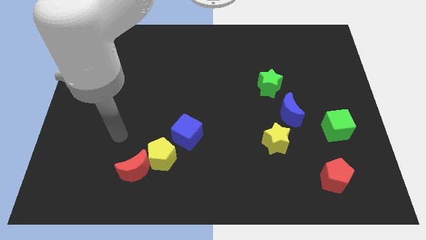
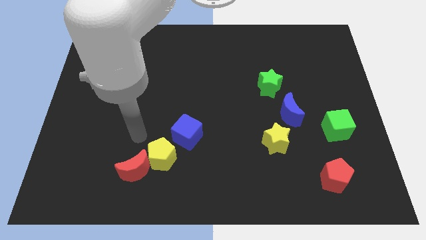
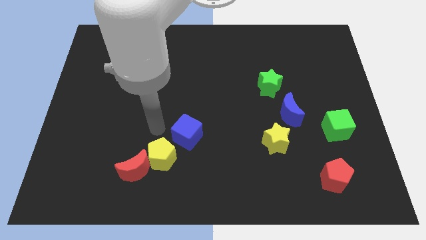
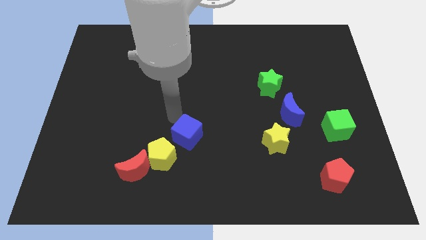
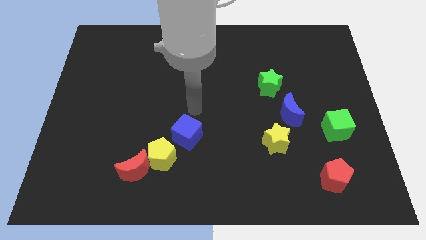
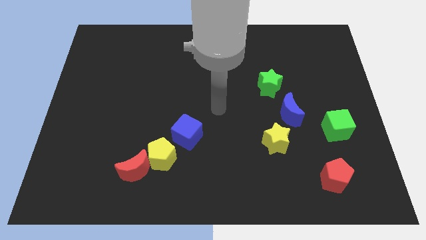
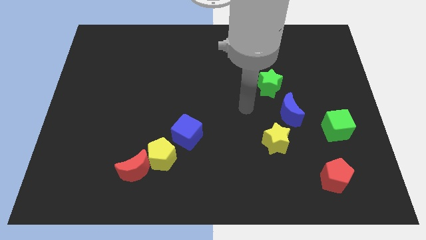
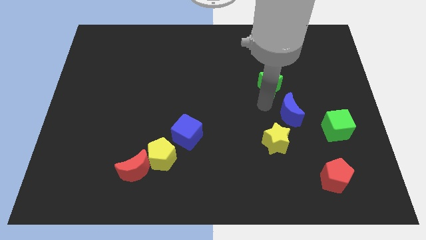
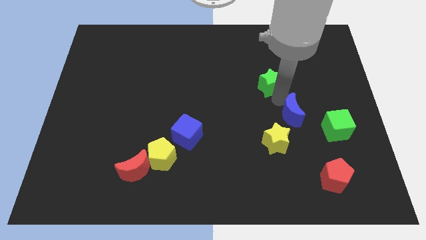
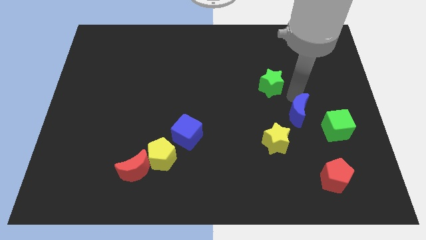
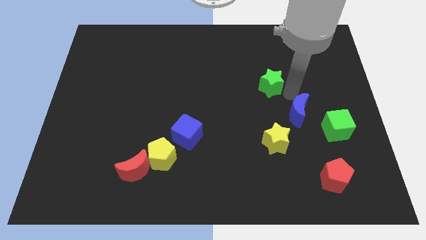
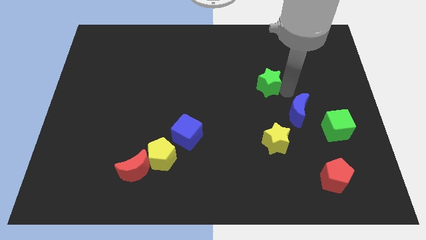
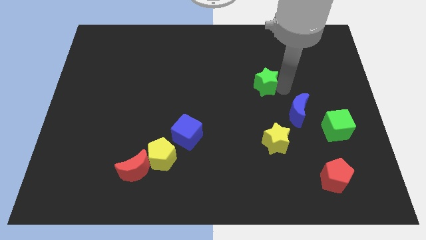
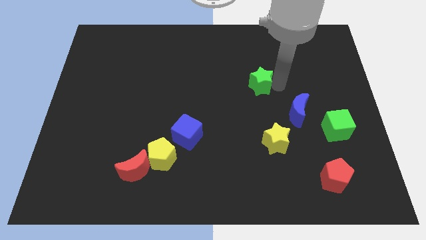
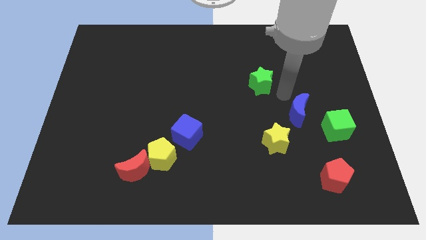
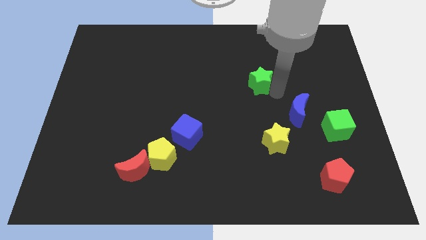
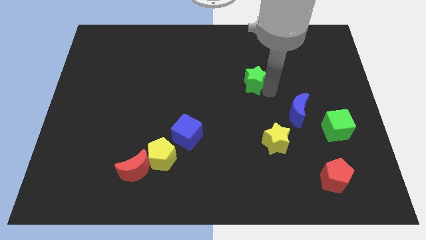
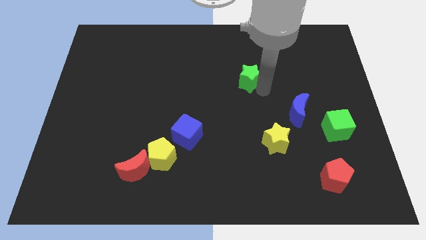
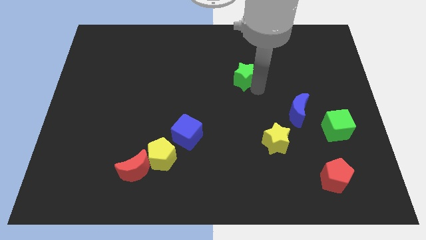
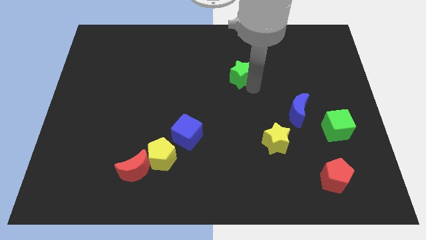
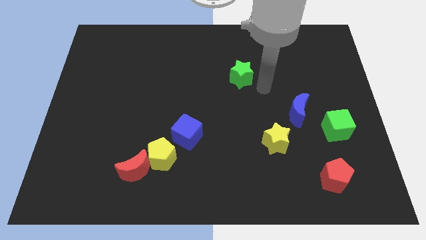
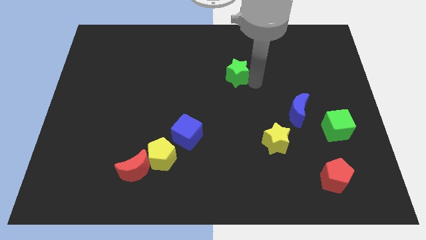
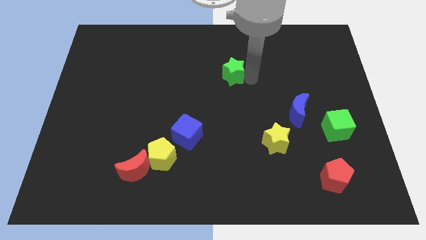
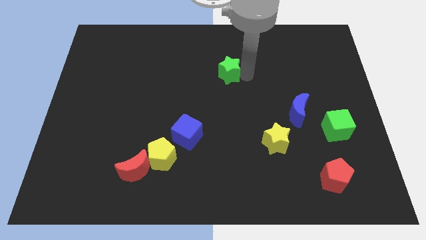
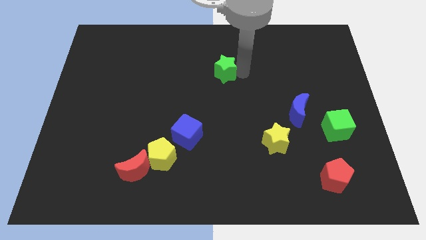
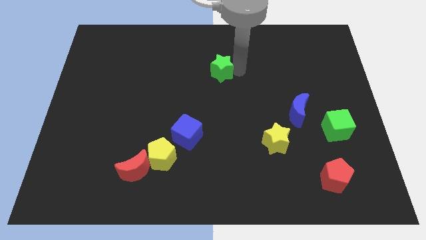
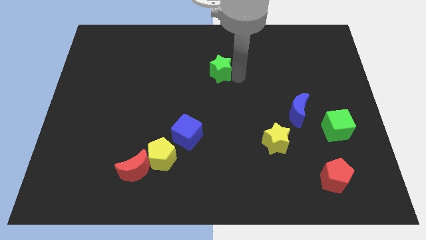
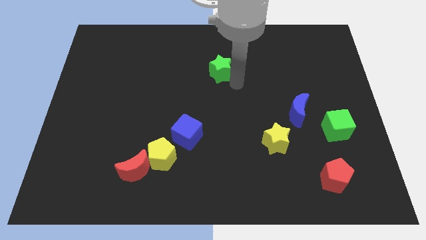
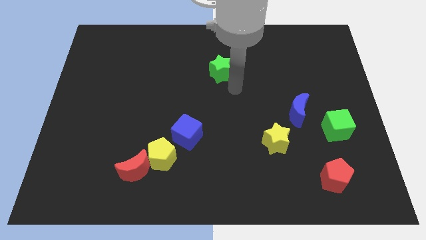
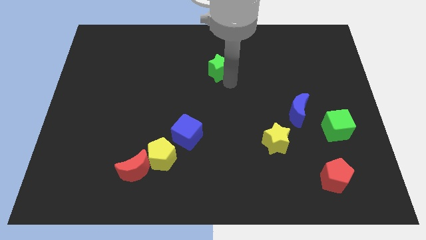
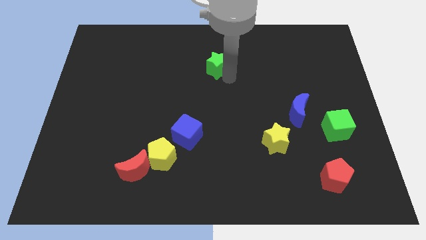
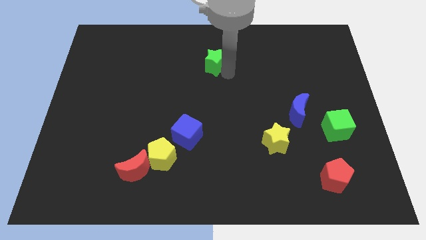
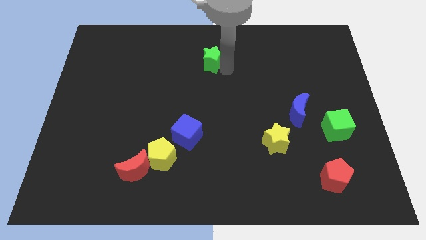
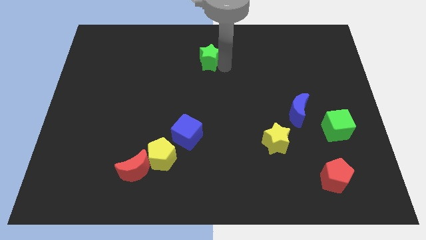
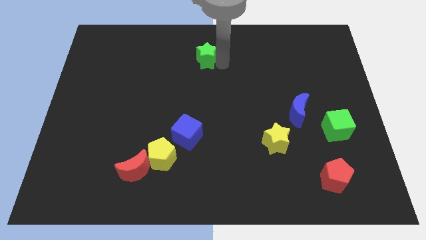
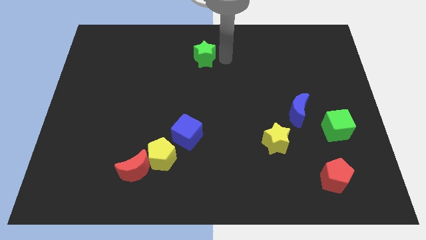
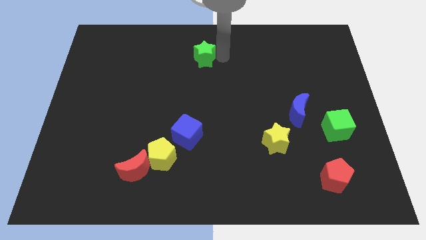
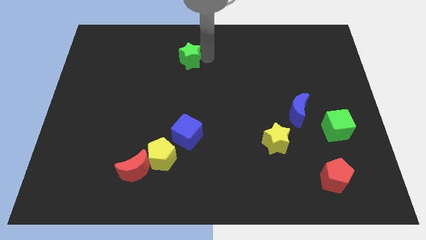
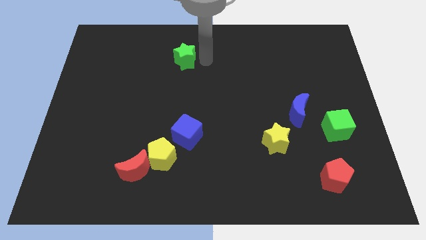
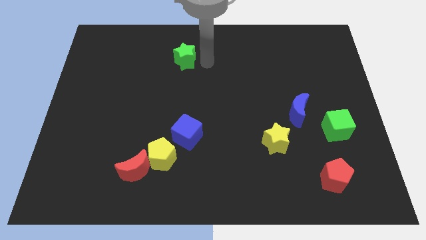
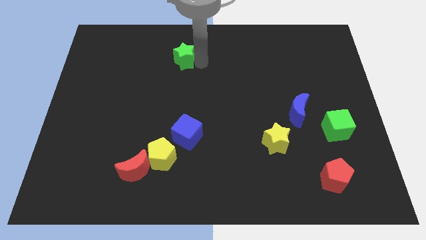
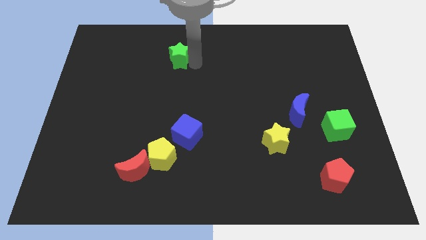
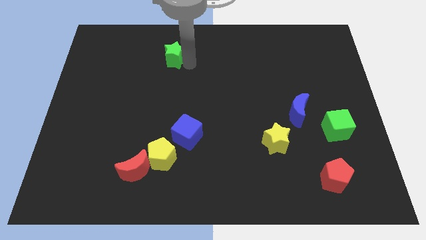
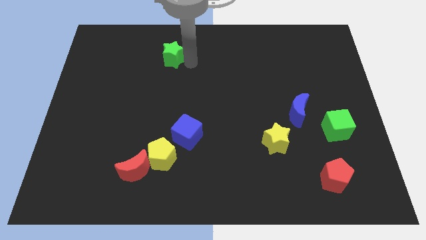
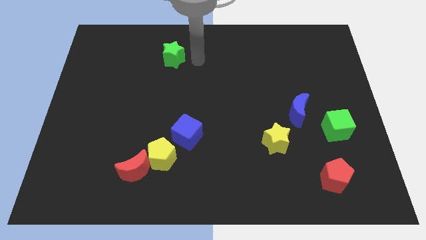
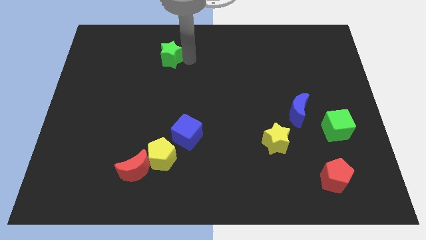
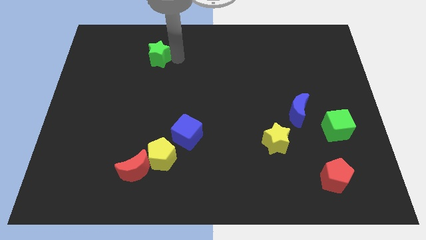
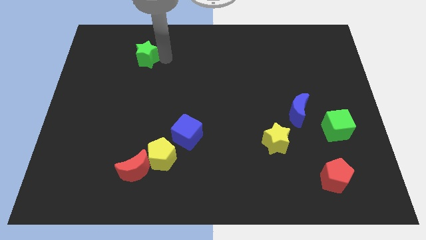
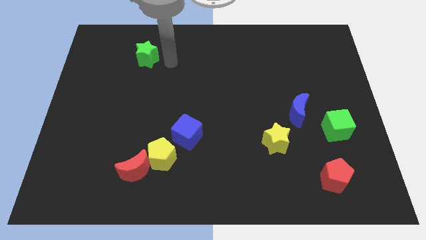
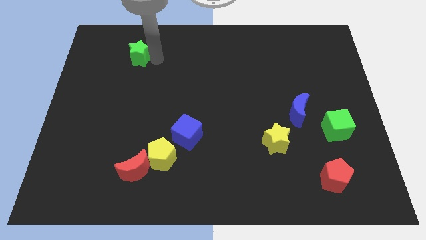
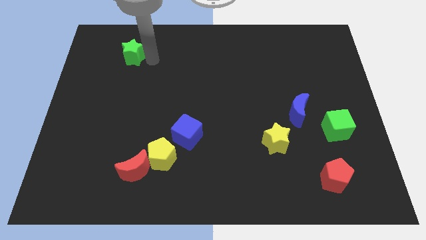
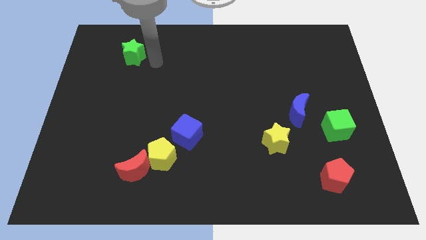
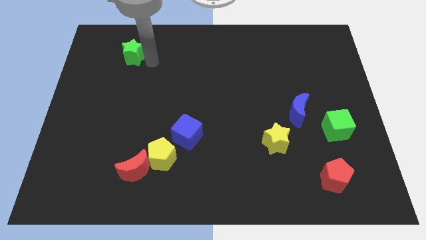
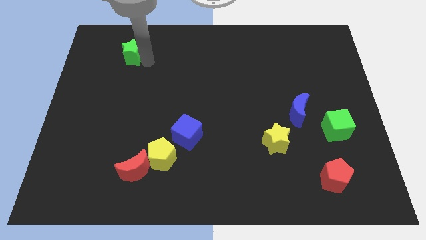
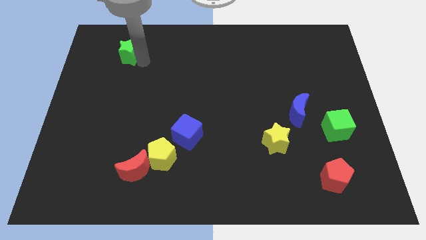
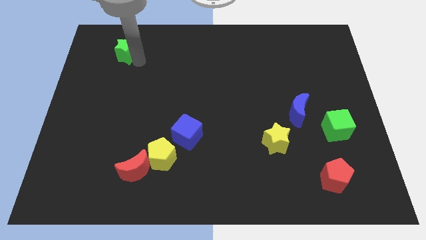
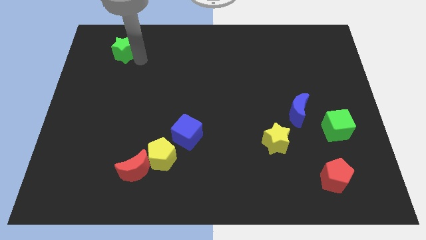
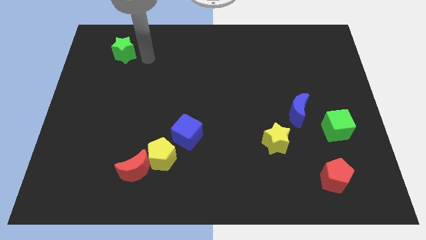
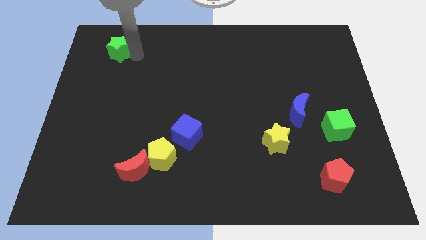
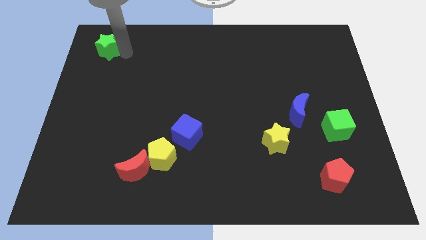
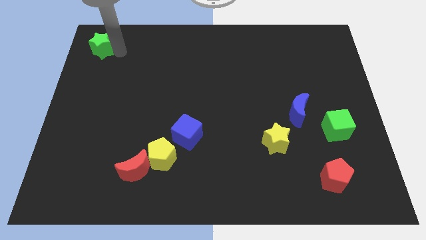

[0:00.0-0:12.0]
put the green star to the top left
